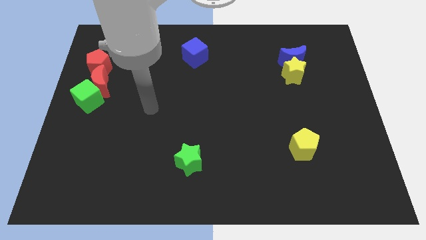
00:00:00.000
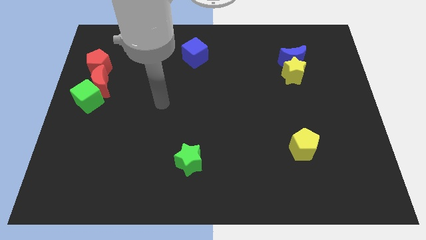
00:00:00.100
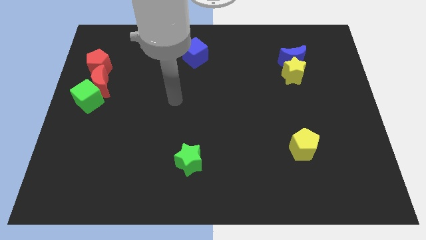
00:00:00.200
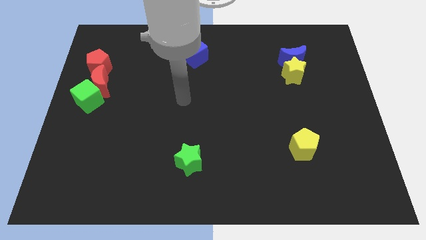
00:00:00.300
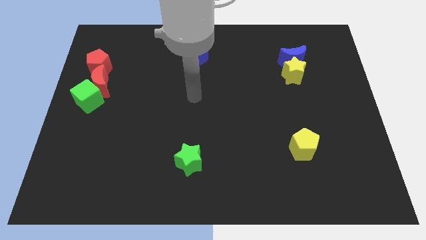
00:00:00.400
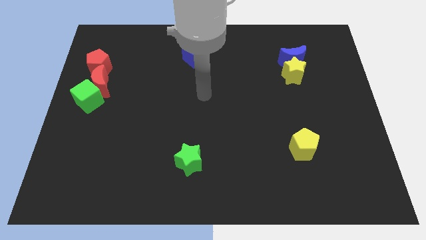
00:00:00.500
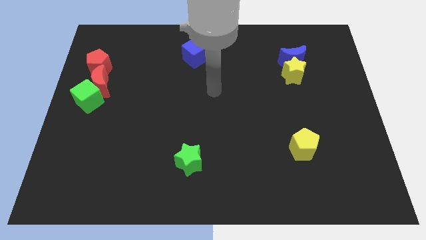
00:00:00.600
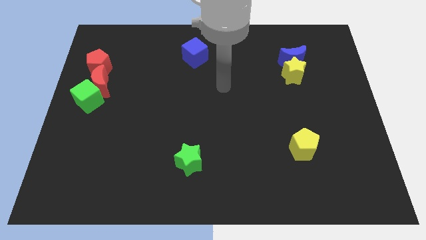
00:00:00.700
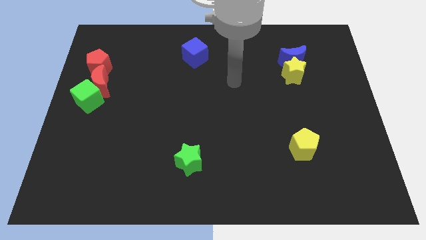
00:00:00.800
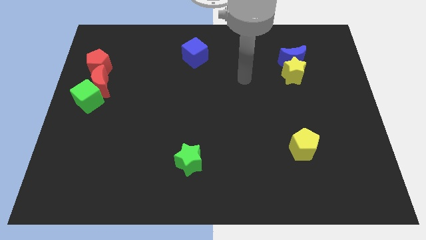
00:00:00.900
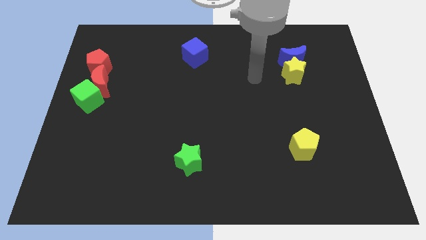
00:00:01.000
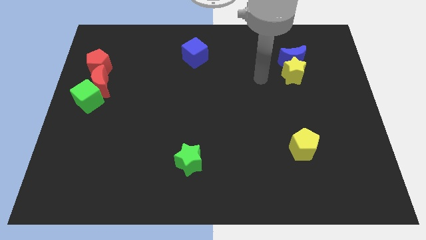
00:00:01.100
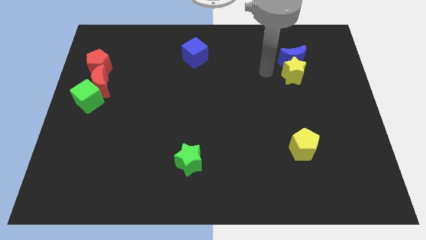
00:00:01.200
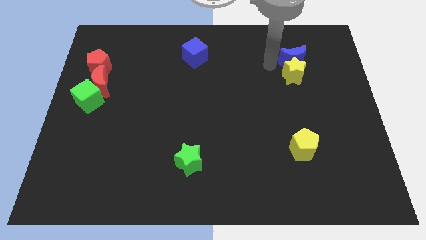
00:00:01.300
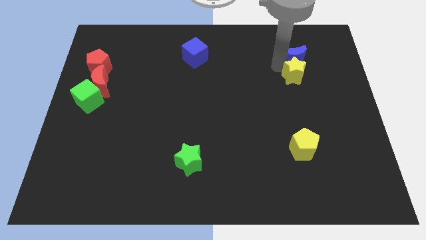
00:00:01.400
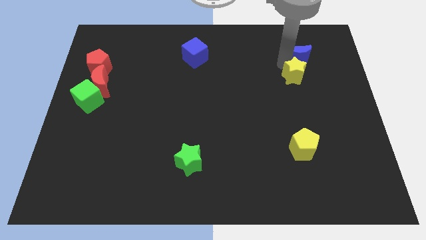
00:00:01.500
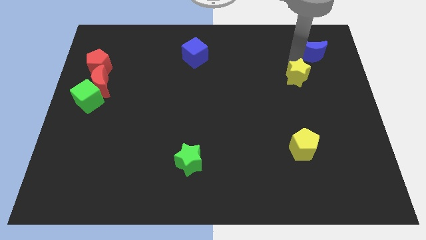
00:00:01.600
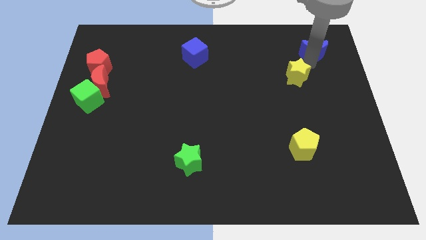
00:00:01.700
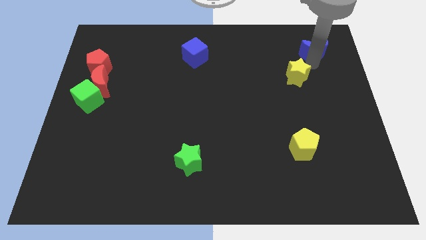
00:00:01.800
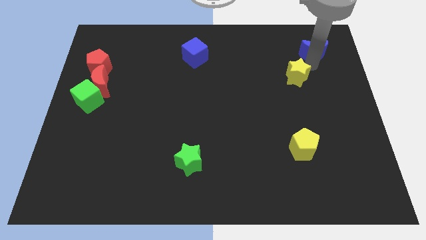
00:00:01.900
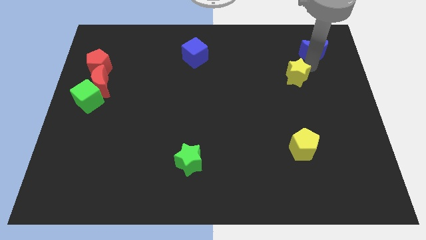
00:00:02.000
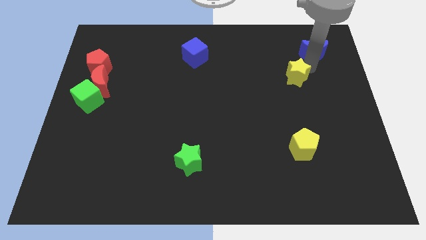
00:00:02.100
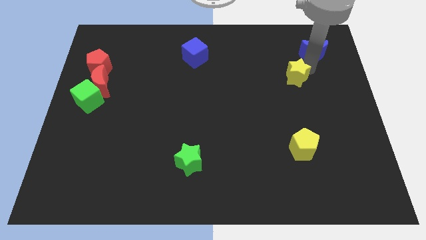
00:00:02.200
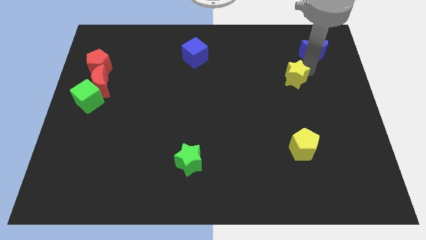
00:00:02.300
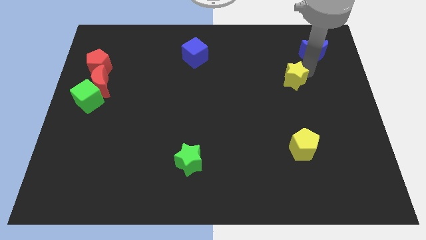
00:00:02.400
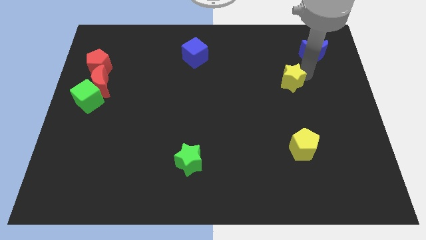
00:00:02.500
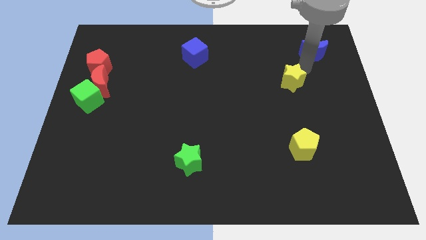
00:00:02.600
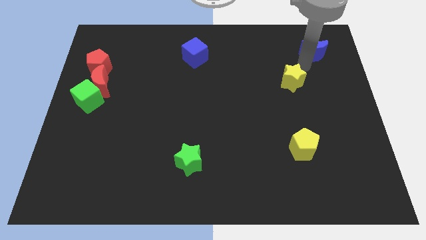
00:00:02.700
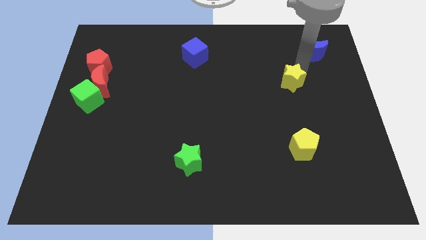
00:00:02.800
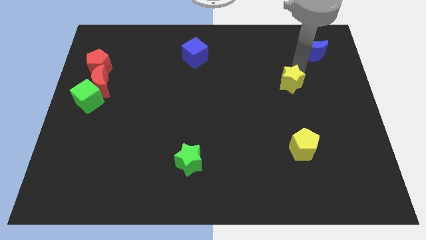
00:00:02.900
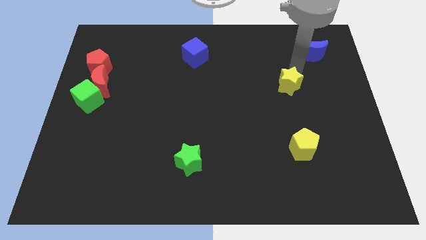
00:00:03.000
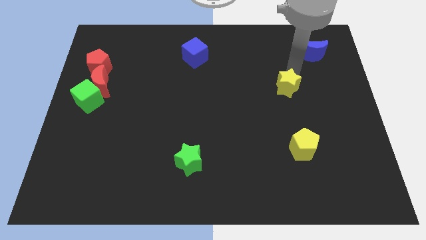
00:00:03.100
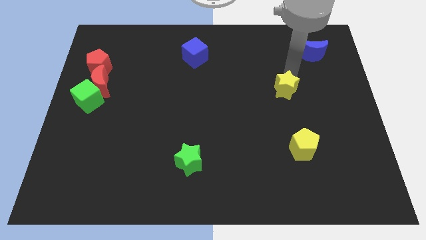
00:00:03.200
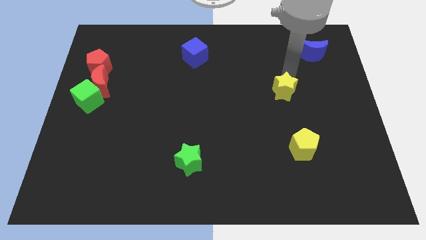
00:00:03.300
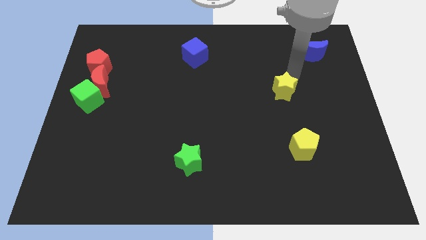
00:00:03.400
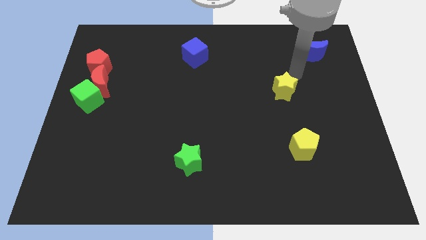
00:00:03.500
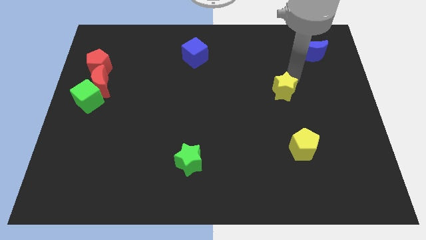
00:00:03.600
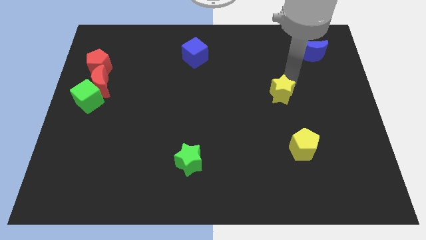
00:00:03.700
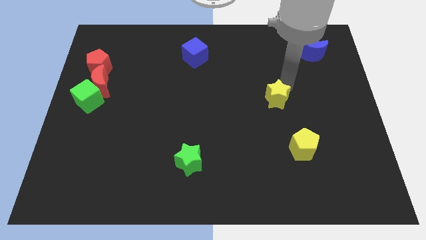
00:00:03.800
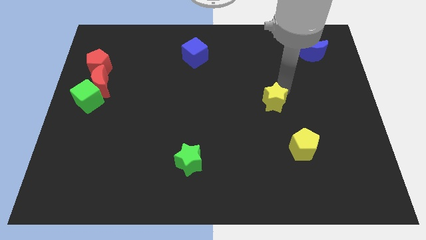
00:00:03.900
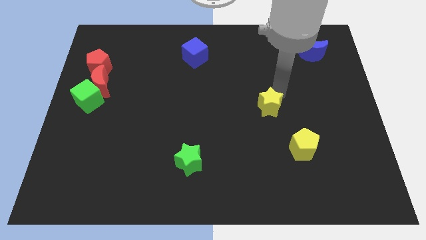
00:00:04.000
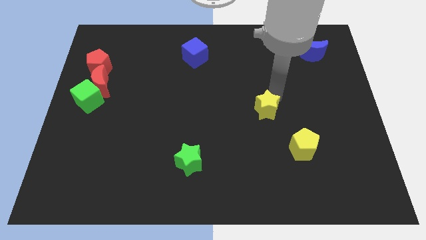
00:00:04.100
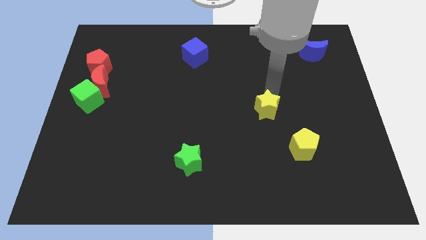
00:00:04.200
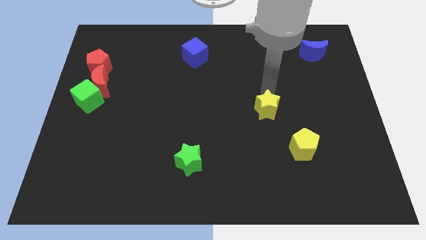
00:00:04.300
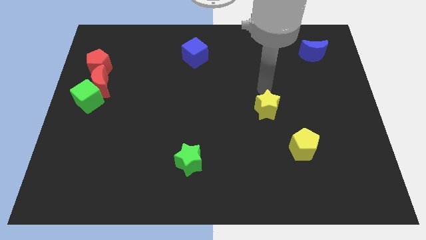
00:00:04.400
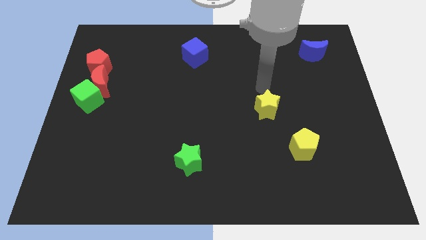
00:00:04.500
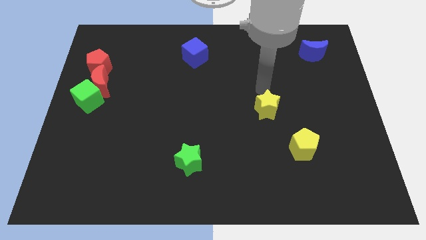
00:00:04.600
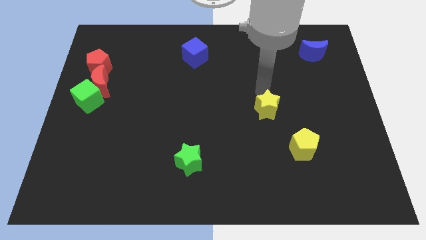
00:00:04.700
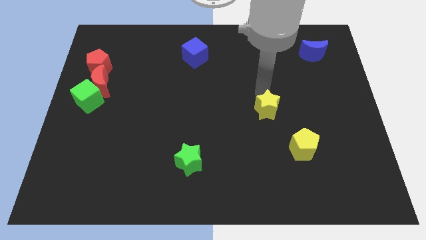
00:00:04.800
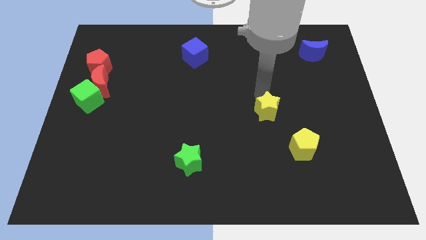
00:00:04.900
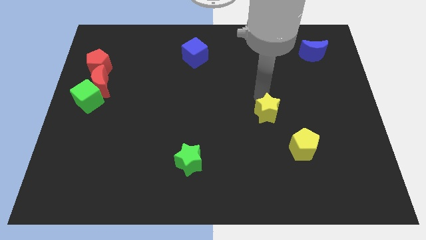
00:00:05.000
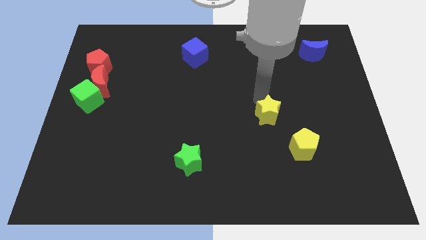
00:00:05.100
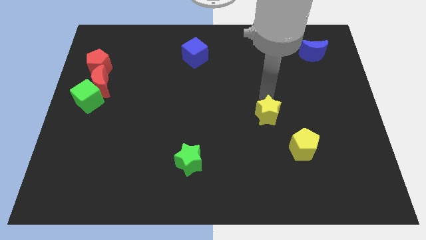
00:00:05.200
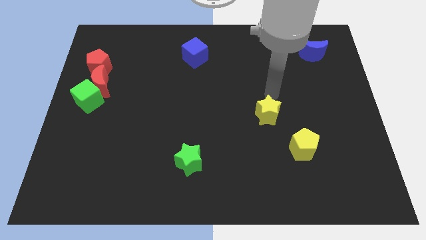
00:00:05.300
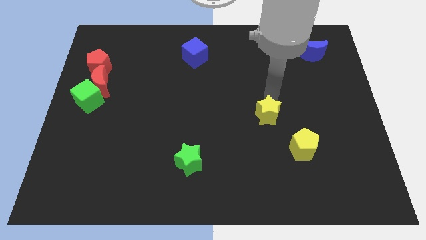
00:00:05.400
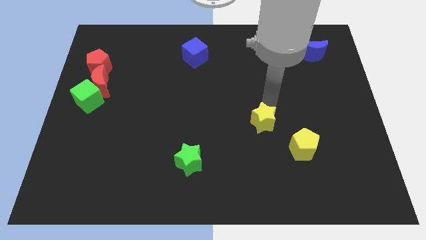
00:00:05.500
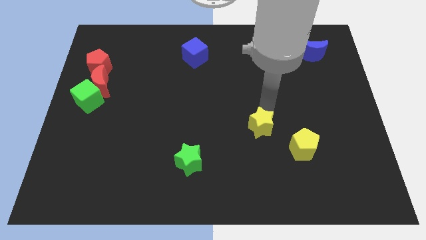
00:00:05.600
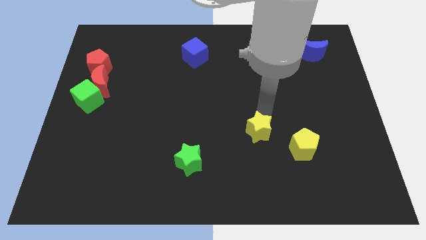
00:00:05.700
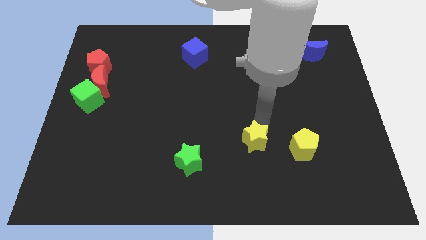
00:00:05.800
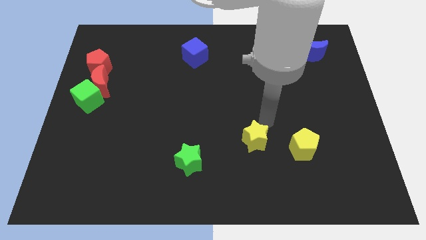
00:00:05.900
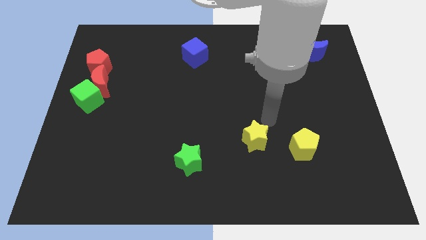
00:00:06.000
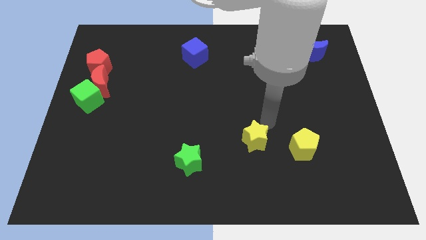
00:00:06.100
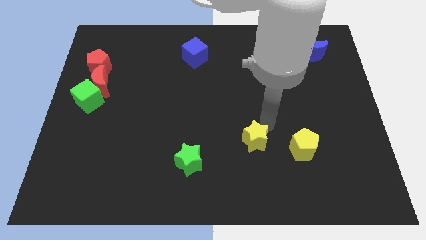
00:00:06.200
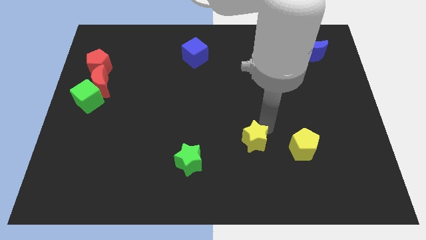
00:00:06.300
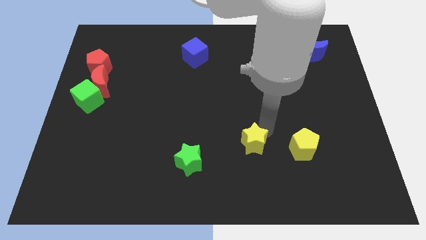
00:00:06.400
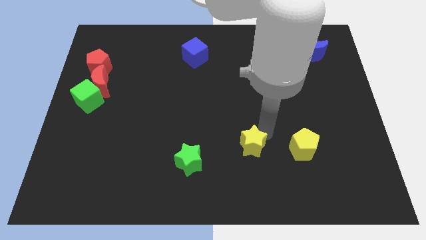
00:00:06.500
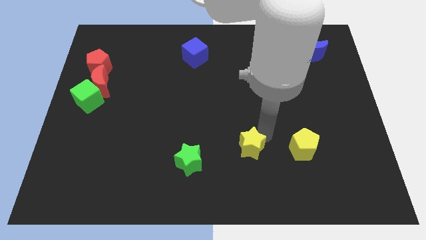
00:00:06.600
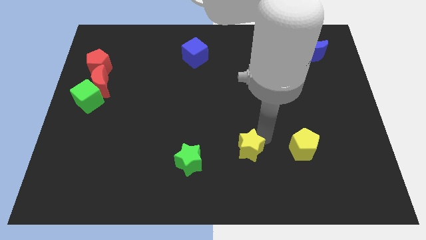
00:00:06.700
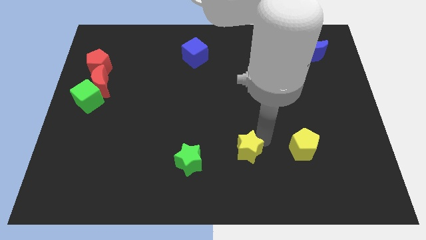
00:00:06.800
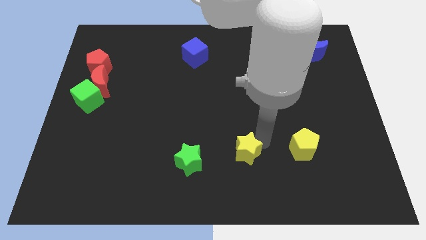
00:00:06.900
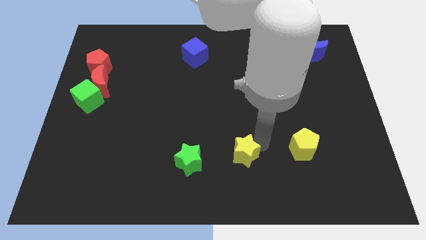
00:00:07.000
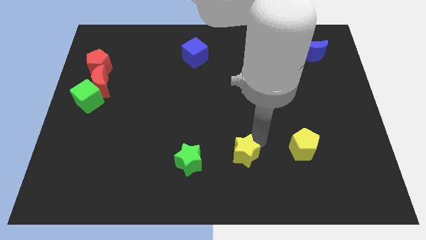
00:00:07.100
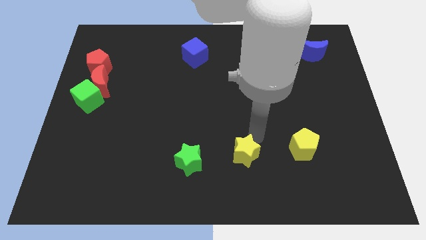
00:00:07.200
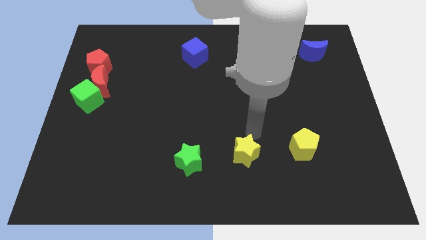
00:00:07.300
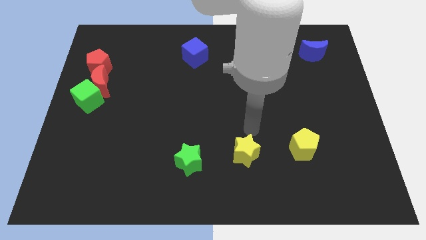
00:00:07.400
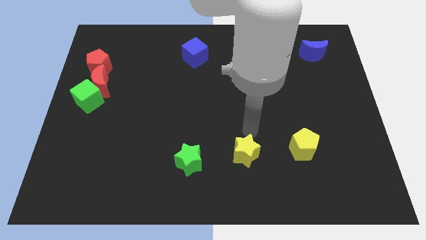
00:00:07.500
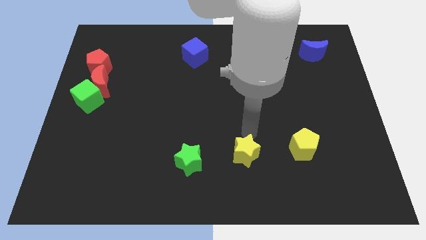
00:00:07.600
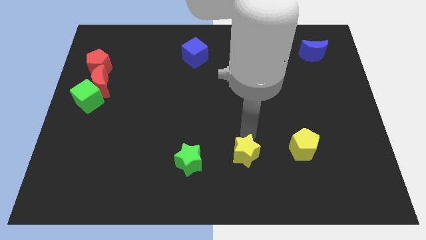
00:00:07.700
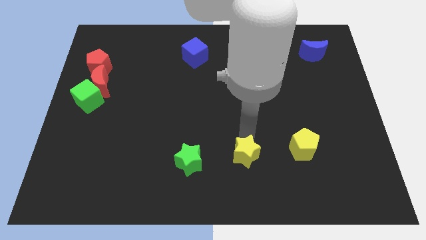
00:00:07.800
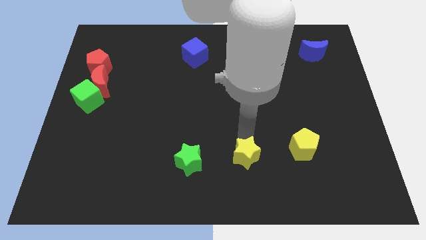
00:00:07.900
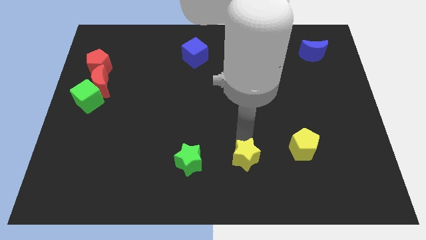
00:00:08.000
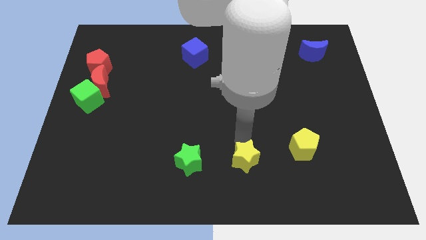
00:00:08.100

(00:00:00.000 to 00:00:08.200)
put the yellow star to the bottom
